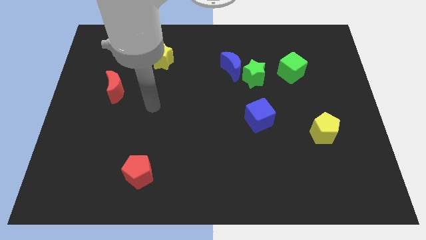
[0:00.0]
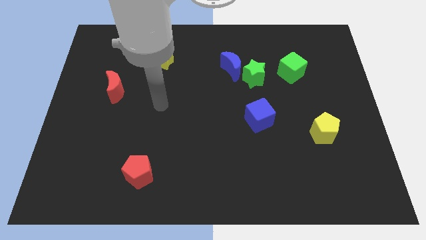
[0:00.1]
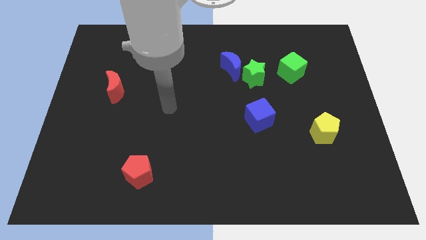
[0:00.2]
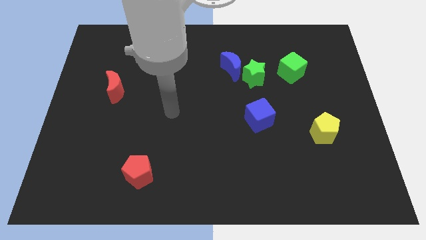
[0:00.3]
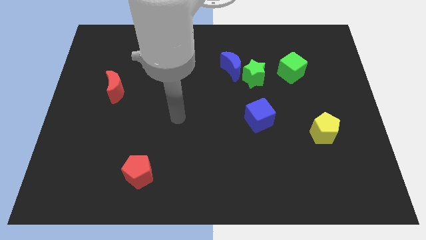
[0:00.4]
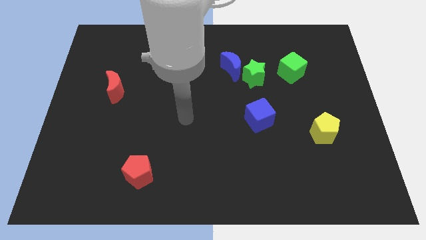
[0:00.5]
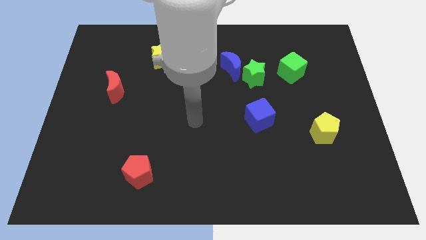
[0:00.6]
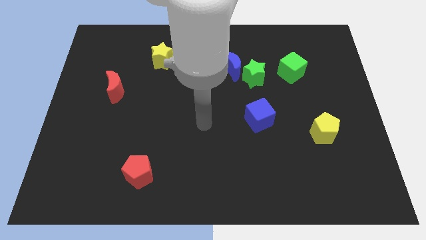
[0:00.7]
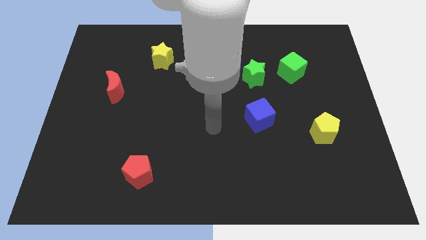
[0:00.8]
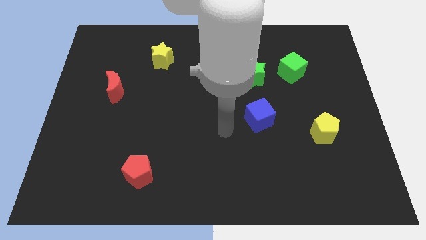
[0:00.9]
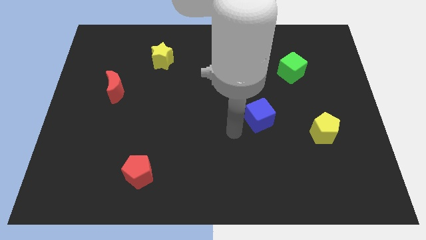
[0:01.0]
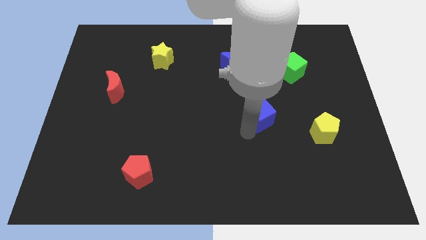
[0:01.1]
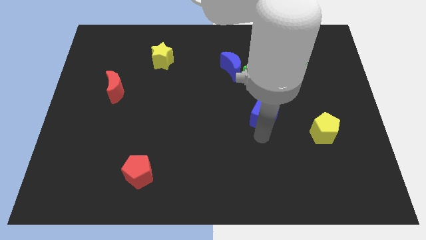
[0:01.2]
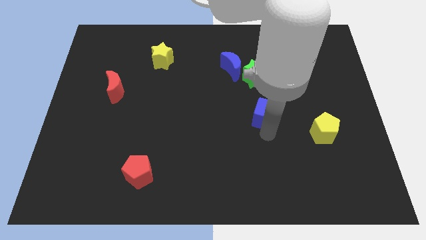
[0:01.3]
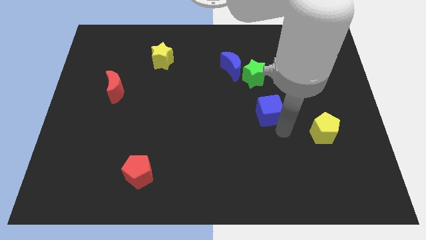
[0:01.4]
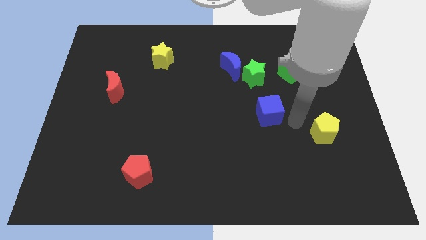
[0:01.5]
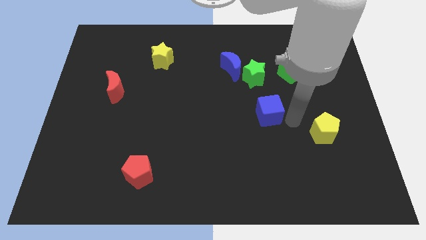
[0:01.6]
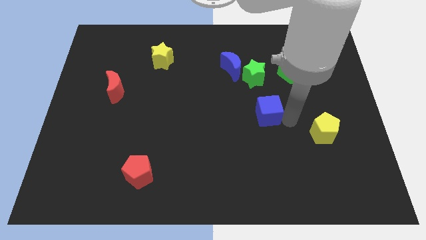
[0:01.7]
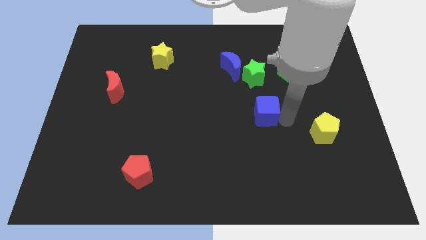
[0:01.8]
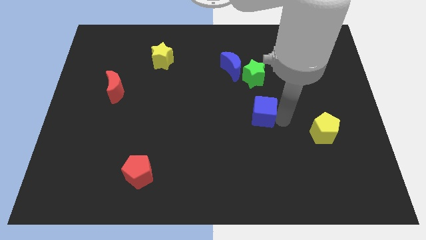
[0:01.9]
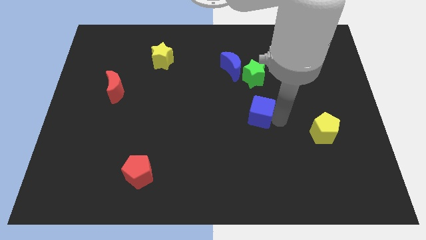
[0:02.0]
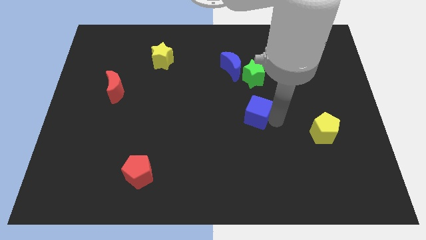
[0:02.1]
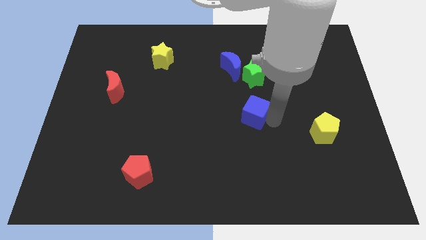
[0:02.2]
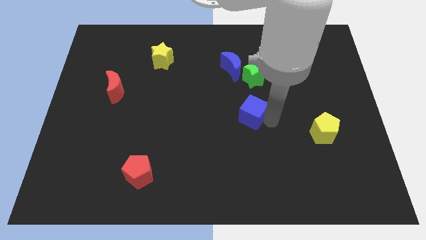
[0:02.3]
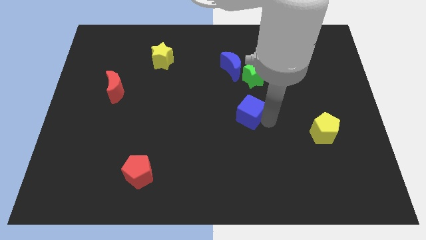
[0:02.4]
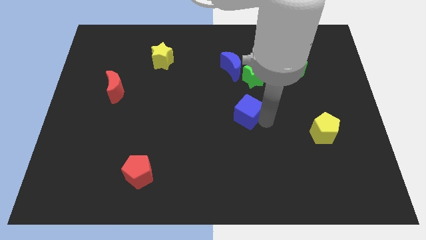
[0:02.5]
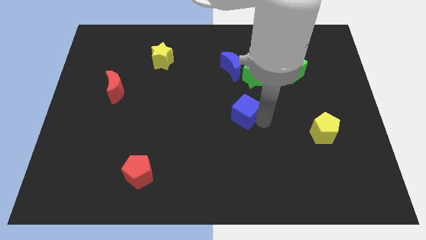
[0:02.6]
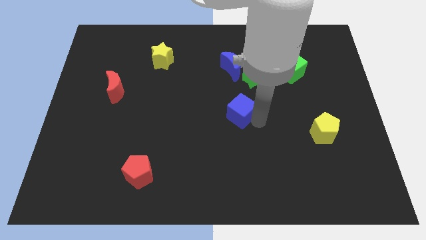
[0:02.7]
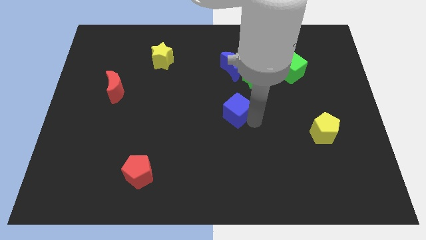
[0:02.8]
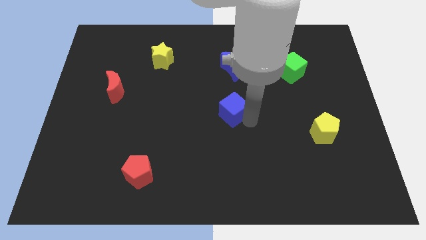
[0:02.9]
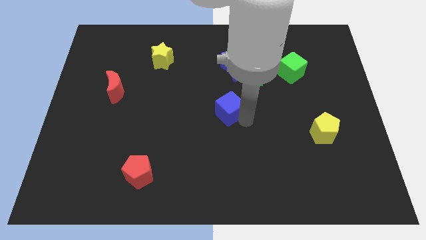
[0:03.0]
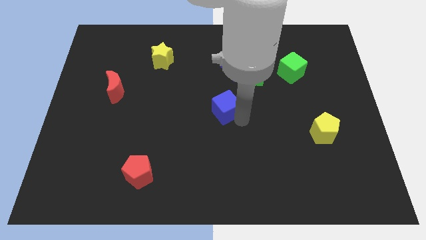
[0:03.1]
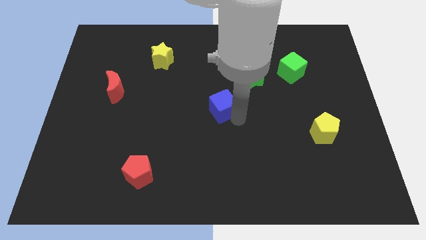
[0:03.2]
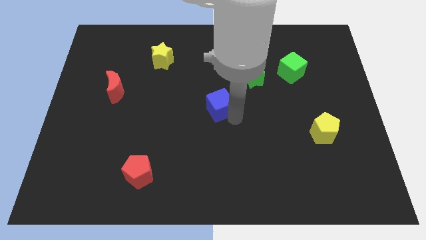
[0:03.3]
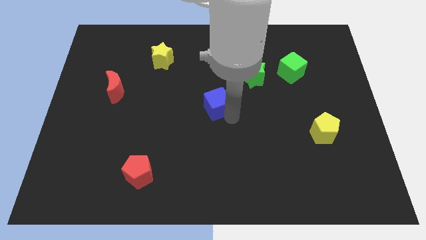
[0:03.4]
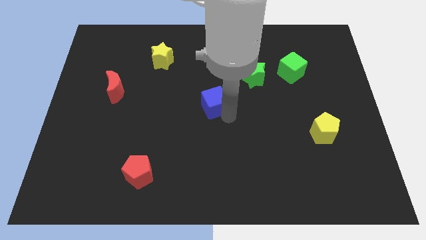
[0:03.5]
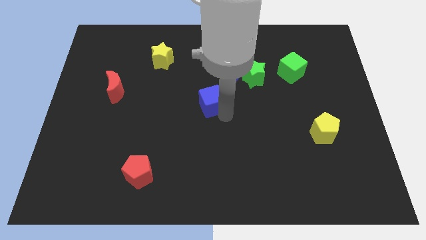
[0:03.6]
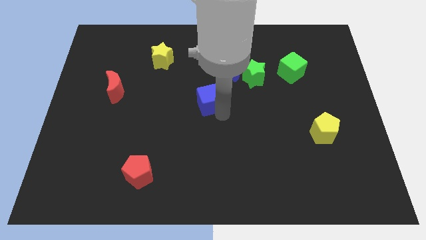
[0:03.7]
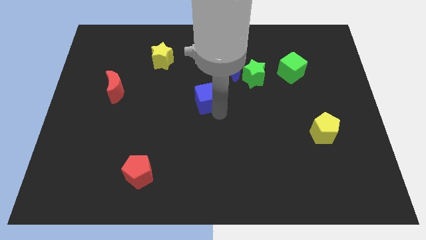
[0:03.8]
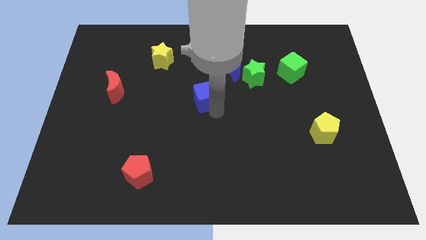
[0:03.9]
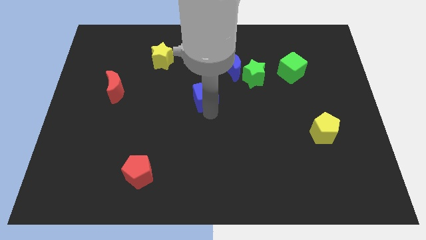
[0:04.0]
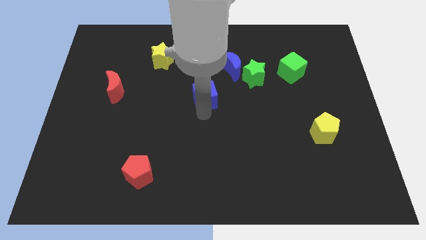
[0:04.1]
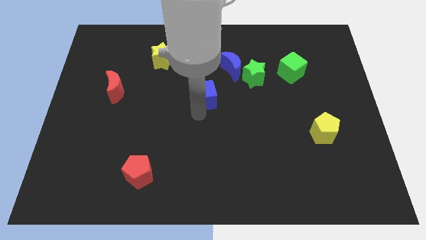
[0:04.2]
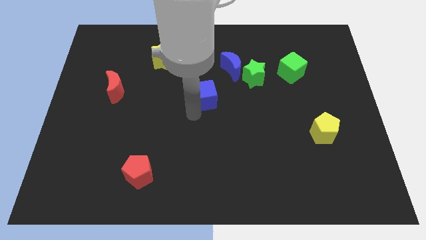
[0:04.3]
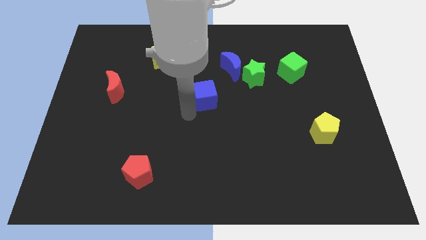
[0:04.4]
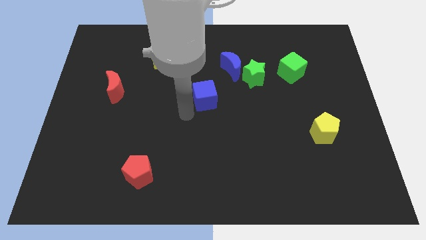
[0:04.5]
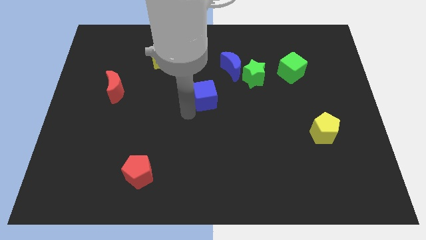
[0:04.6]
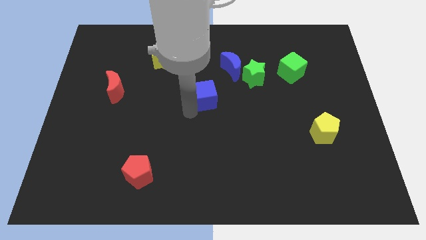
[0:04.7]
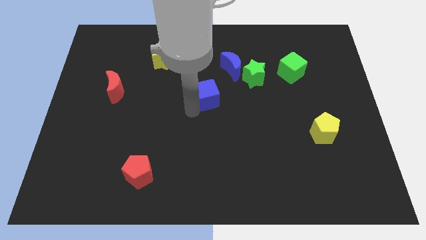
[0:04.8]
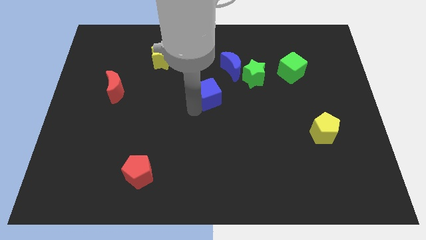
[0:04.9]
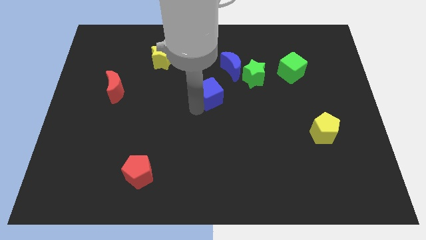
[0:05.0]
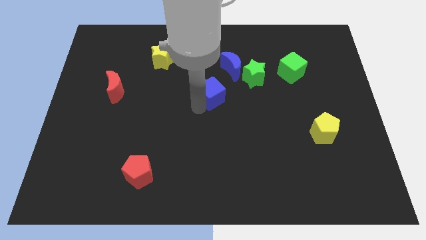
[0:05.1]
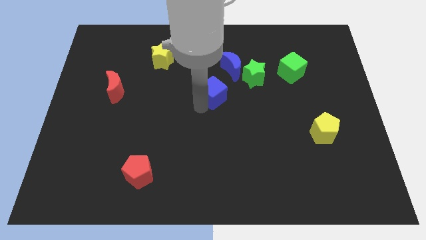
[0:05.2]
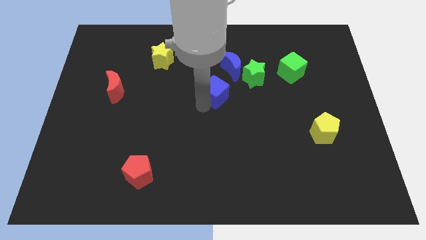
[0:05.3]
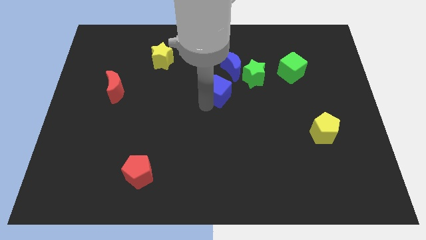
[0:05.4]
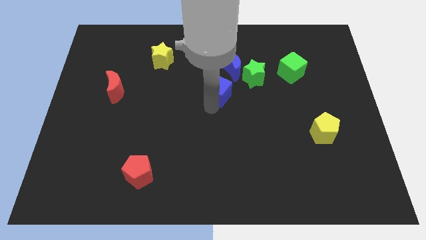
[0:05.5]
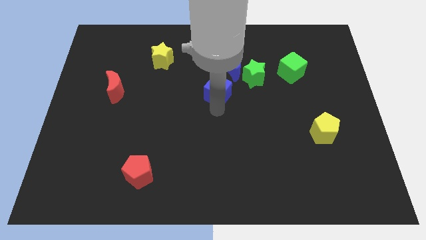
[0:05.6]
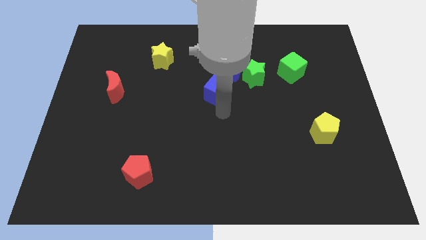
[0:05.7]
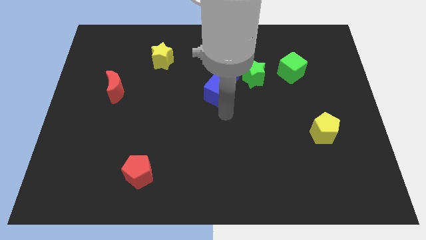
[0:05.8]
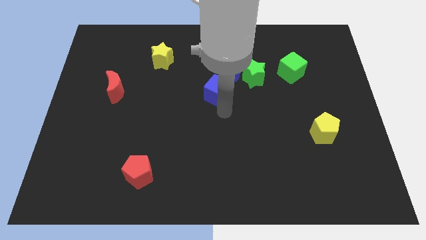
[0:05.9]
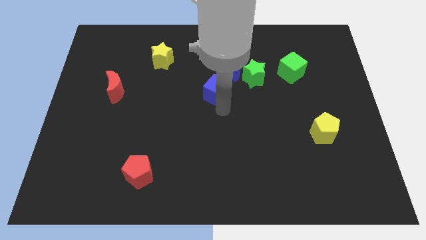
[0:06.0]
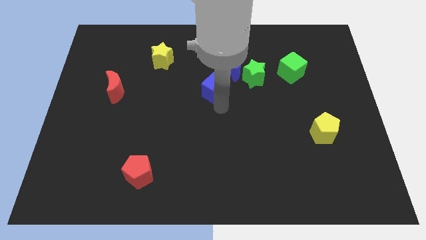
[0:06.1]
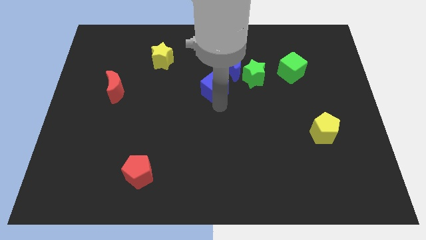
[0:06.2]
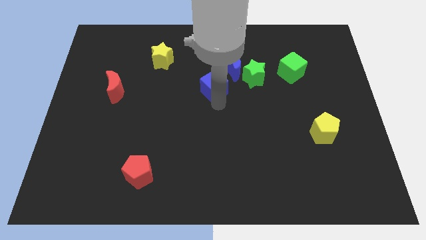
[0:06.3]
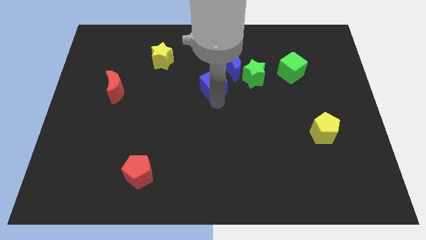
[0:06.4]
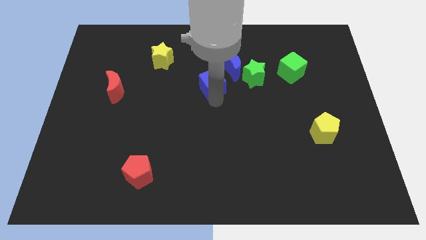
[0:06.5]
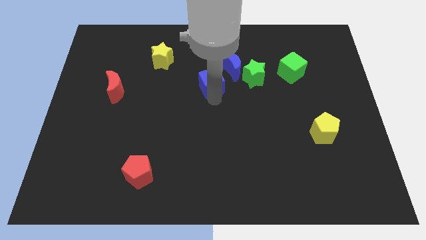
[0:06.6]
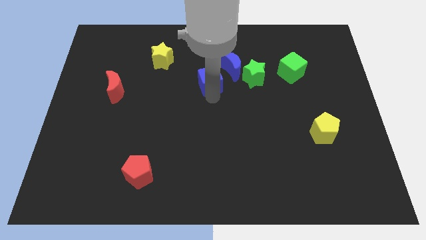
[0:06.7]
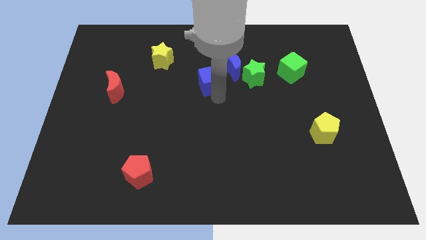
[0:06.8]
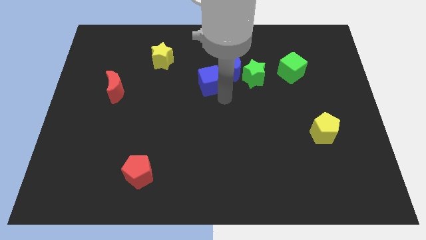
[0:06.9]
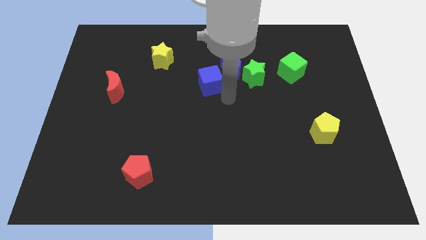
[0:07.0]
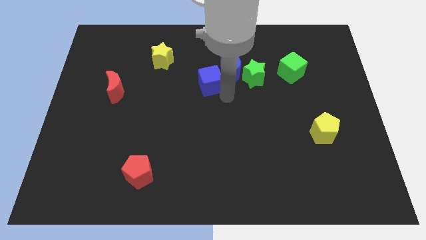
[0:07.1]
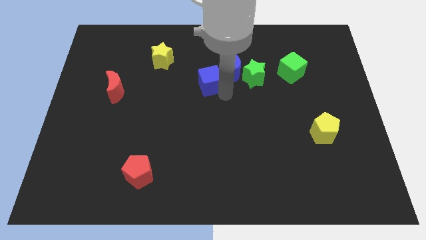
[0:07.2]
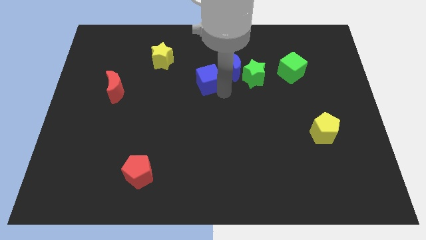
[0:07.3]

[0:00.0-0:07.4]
slide the blue cube to the left side of the blue moon
